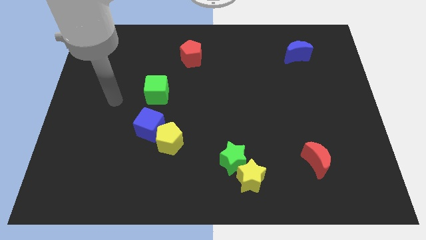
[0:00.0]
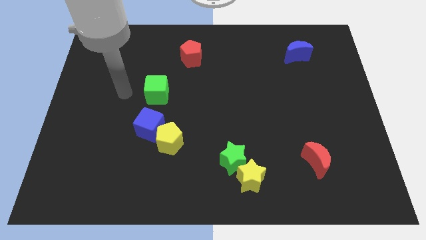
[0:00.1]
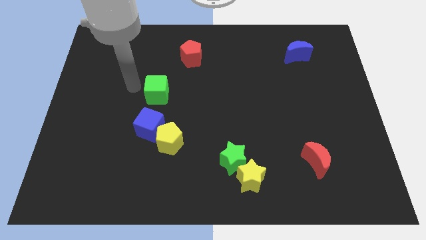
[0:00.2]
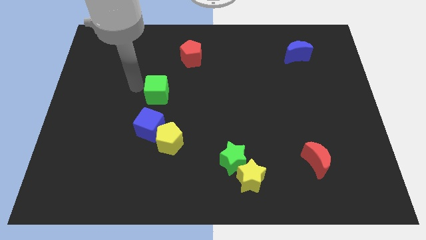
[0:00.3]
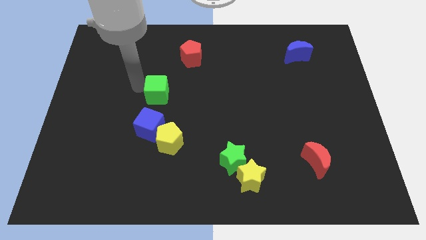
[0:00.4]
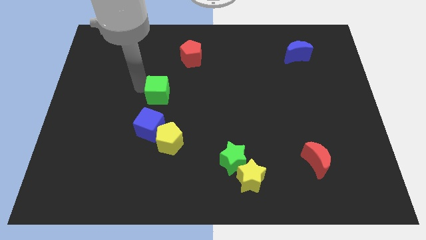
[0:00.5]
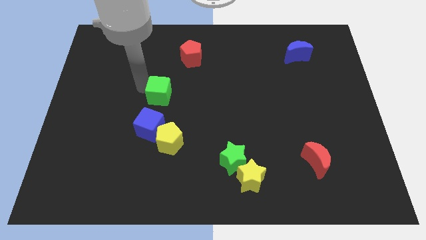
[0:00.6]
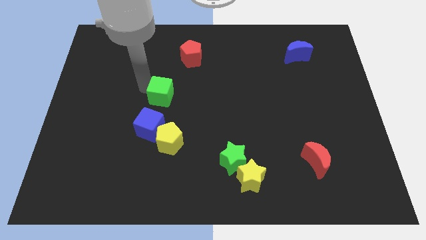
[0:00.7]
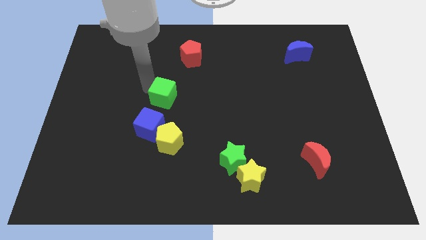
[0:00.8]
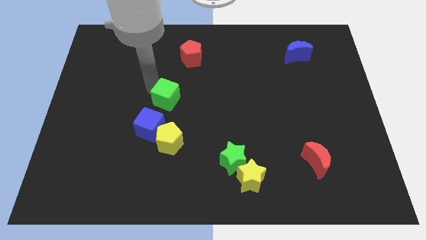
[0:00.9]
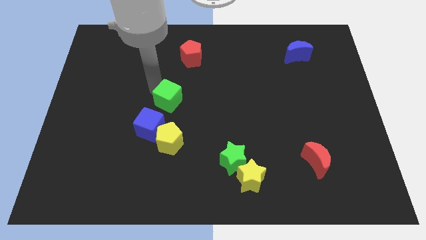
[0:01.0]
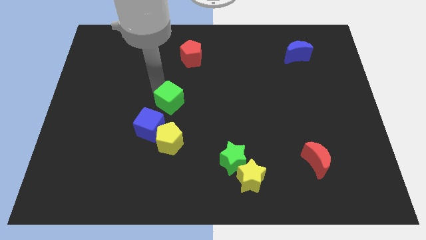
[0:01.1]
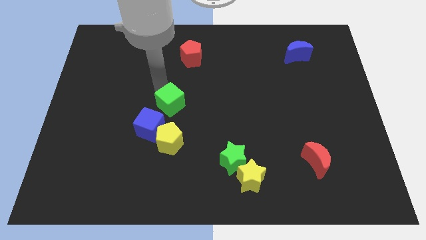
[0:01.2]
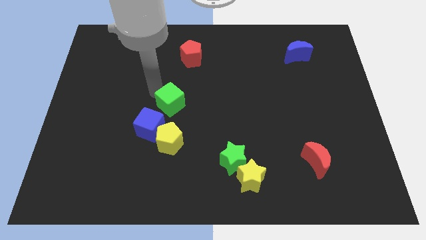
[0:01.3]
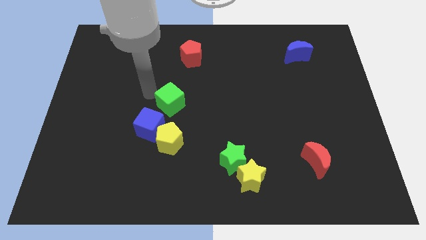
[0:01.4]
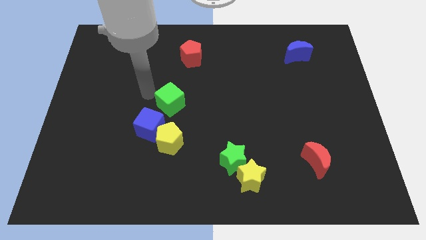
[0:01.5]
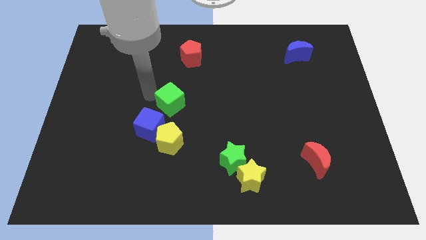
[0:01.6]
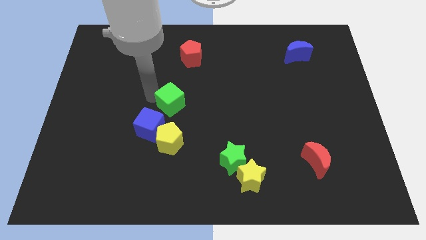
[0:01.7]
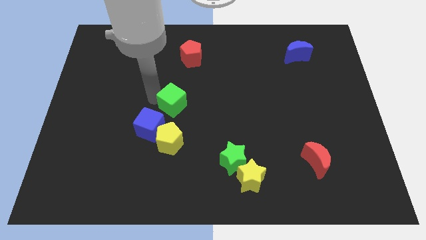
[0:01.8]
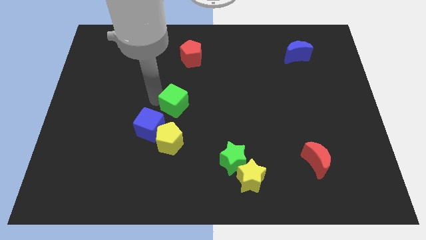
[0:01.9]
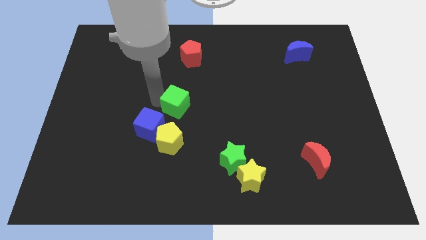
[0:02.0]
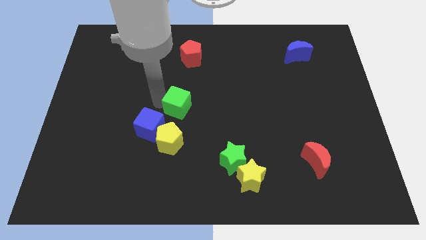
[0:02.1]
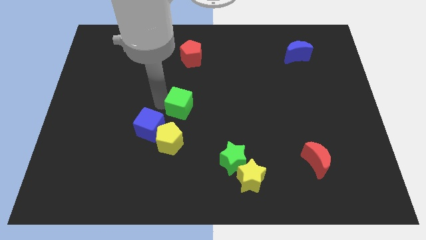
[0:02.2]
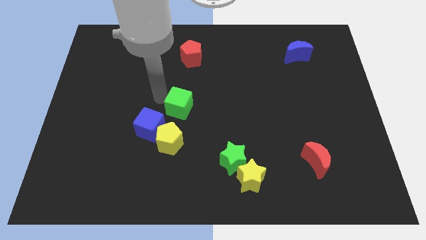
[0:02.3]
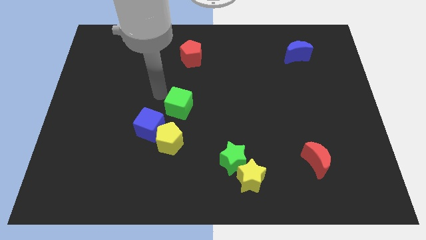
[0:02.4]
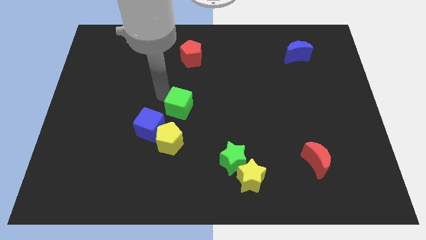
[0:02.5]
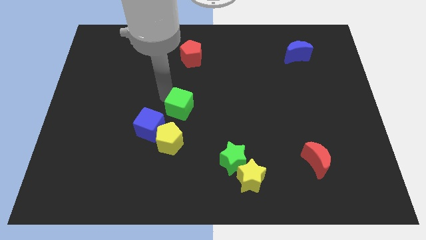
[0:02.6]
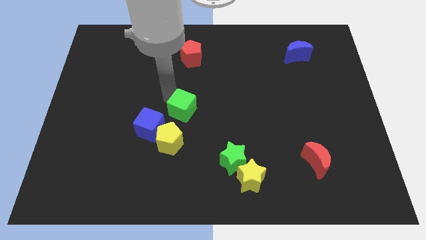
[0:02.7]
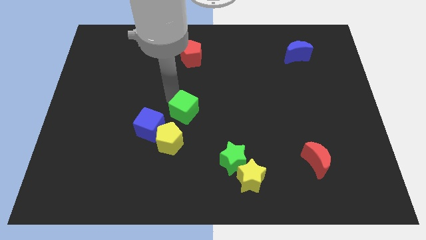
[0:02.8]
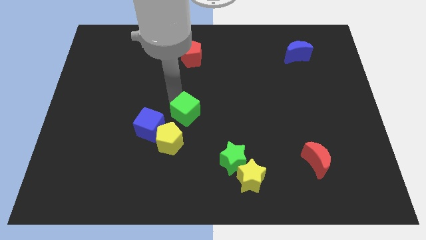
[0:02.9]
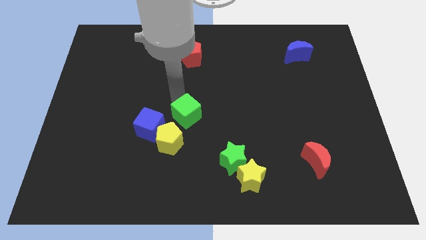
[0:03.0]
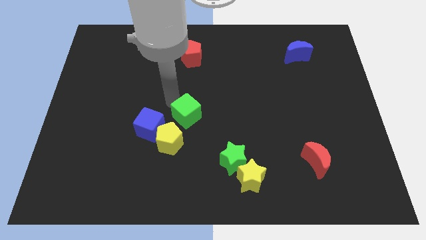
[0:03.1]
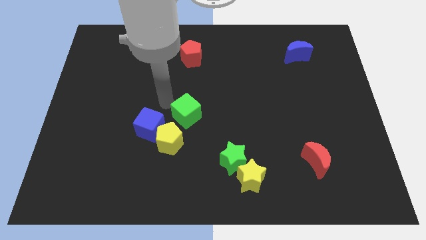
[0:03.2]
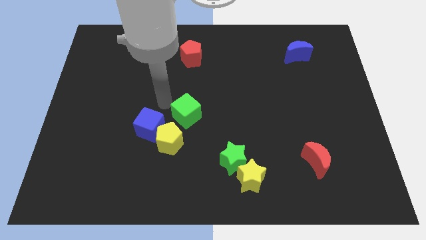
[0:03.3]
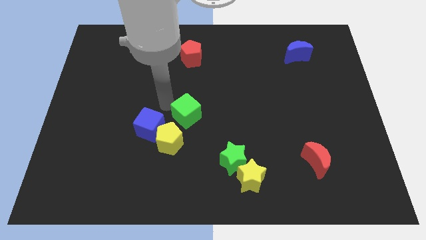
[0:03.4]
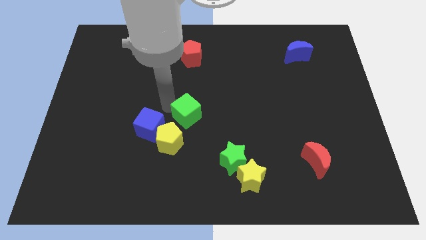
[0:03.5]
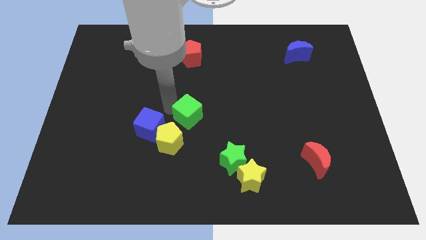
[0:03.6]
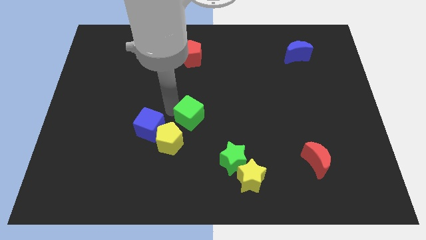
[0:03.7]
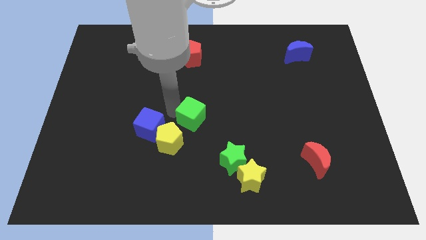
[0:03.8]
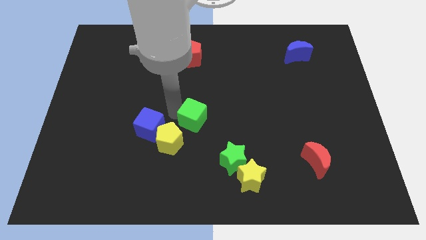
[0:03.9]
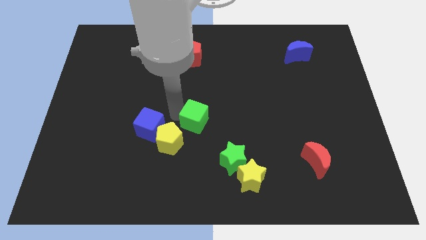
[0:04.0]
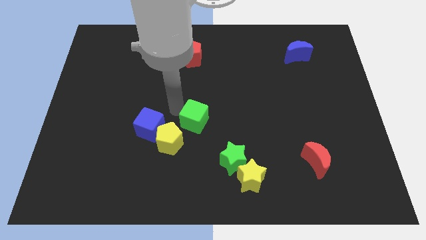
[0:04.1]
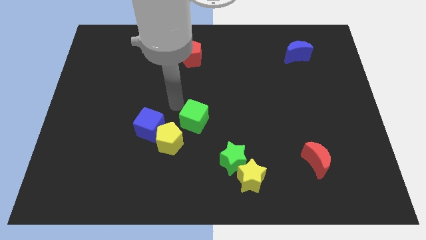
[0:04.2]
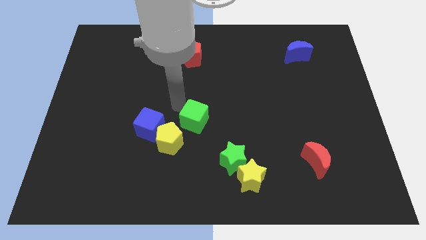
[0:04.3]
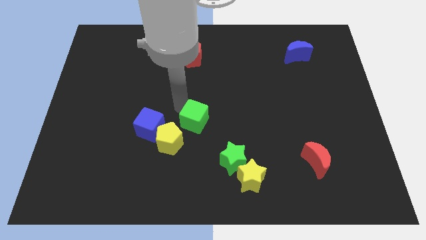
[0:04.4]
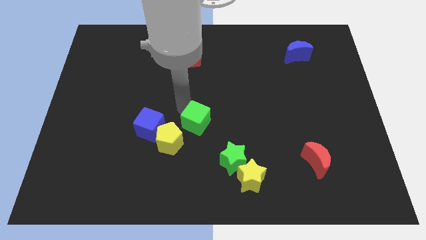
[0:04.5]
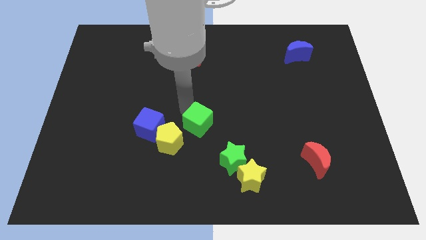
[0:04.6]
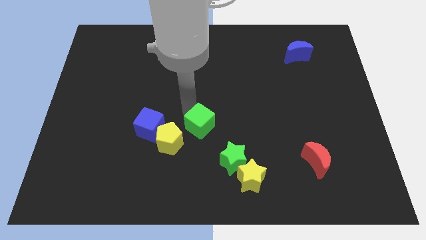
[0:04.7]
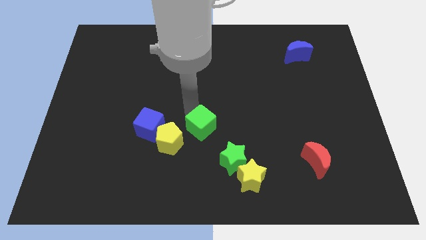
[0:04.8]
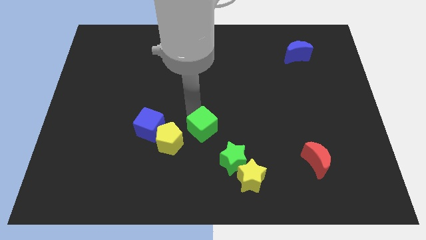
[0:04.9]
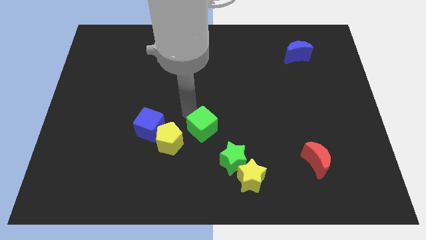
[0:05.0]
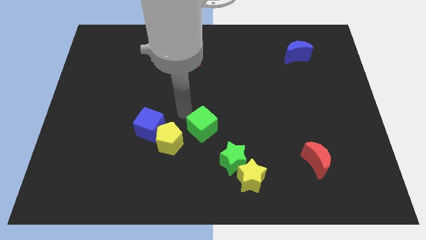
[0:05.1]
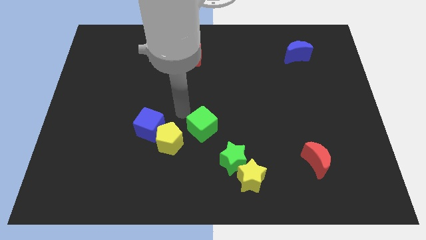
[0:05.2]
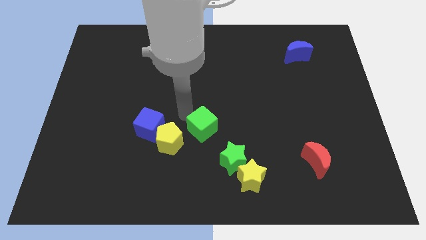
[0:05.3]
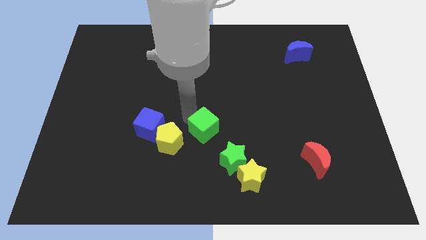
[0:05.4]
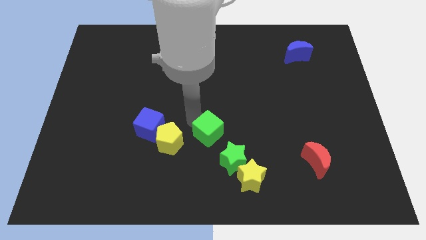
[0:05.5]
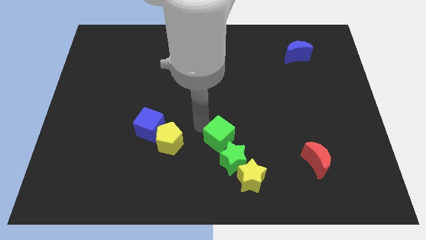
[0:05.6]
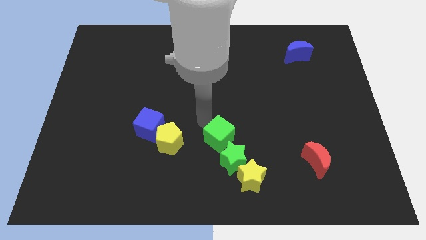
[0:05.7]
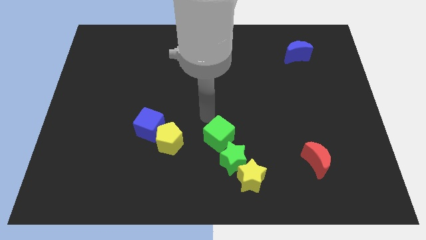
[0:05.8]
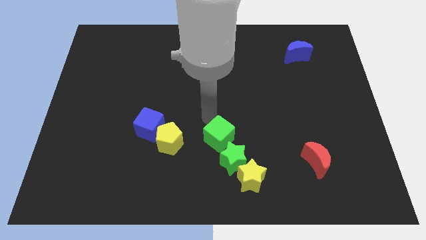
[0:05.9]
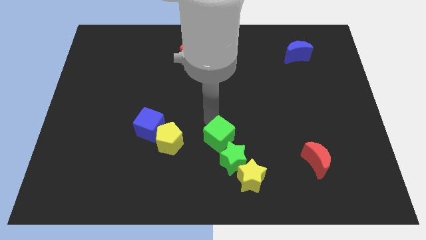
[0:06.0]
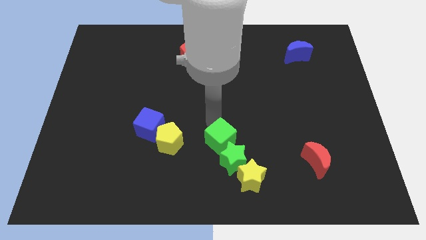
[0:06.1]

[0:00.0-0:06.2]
slide the green cube to the green star

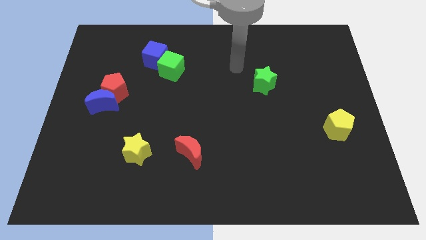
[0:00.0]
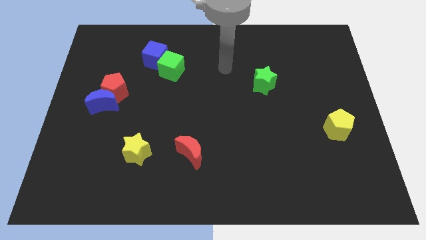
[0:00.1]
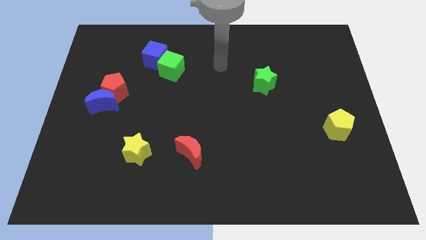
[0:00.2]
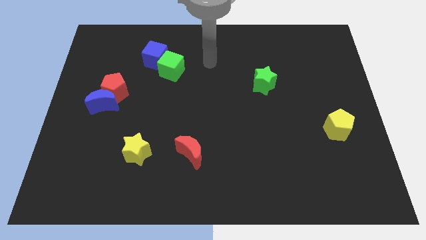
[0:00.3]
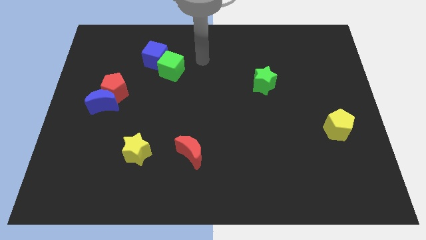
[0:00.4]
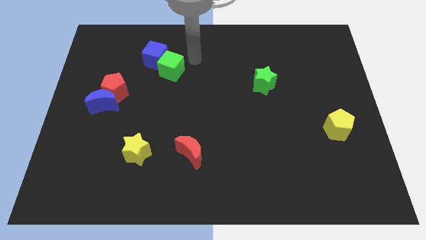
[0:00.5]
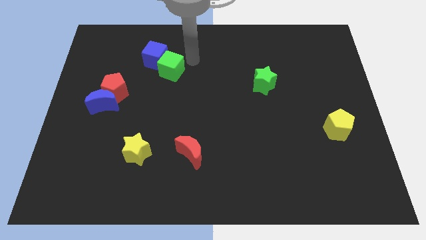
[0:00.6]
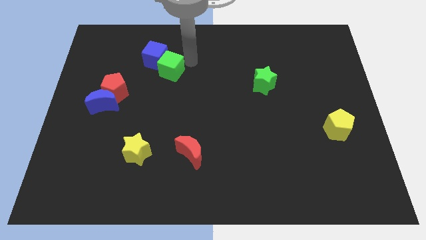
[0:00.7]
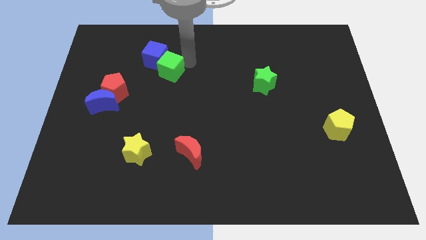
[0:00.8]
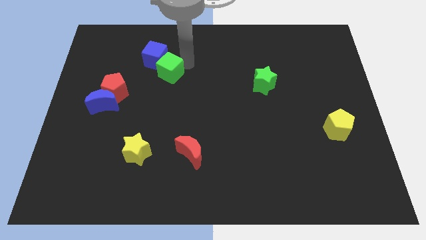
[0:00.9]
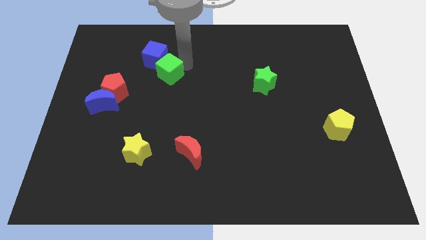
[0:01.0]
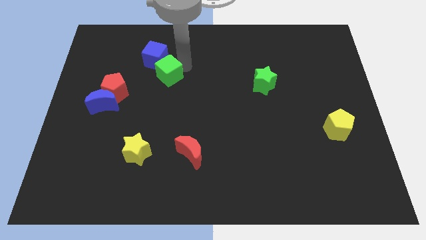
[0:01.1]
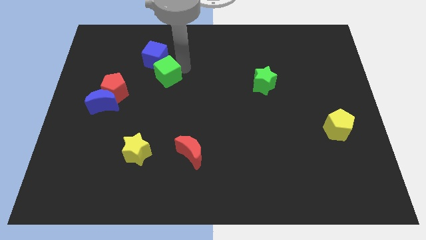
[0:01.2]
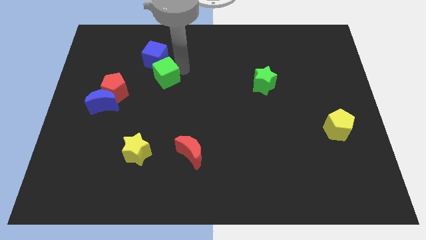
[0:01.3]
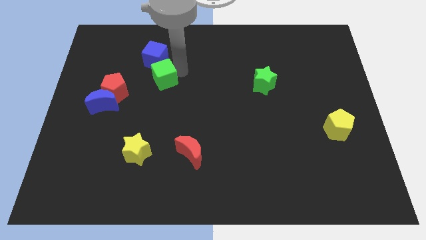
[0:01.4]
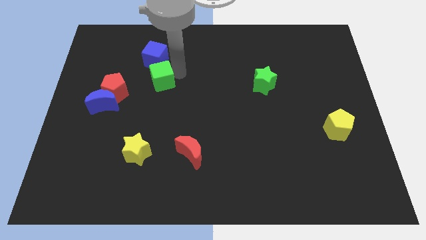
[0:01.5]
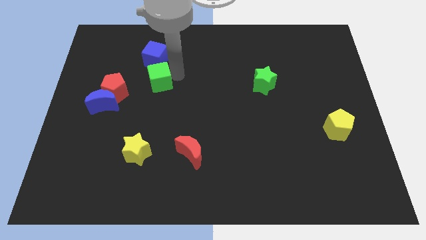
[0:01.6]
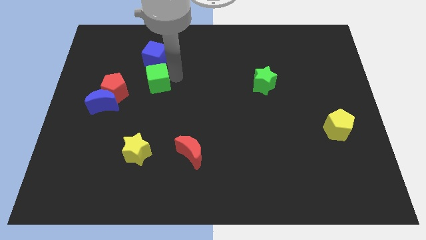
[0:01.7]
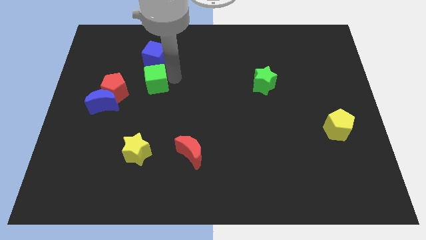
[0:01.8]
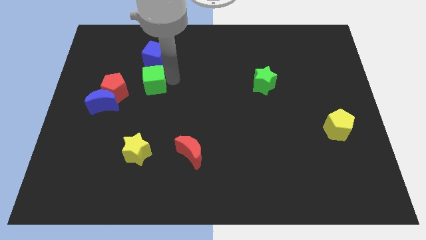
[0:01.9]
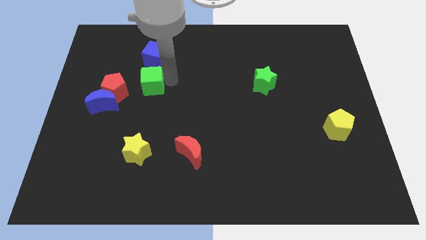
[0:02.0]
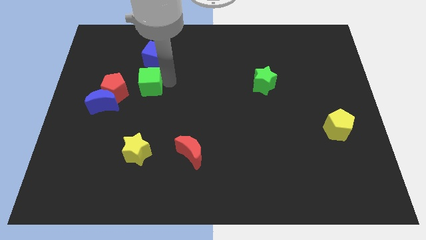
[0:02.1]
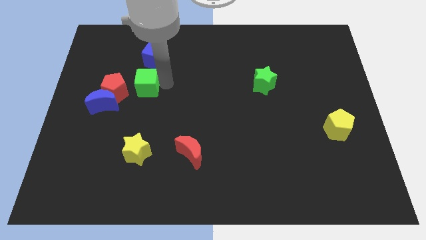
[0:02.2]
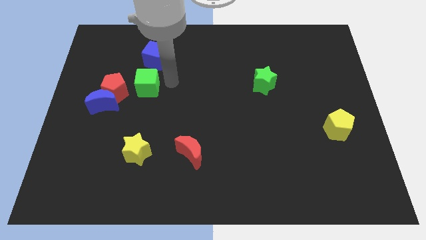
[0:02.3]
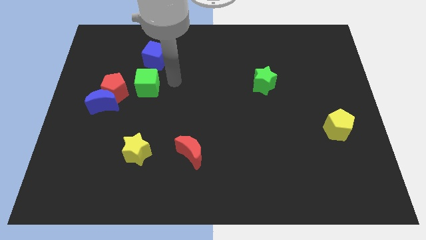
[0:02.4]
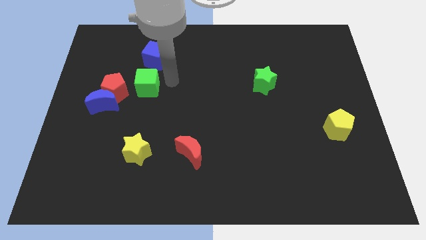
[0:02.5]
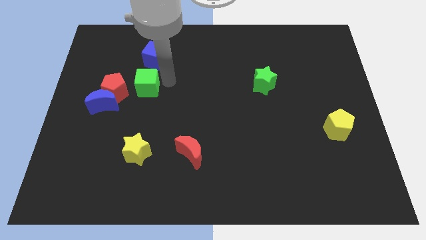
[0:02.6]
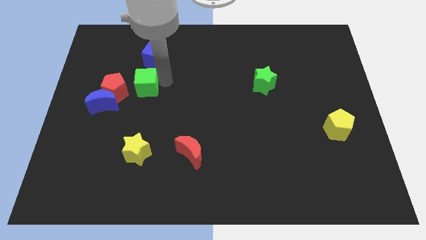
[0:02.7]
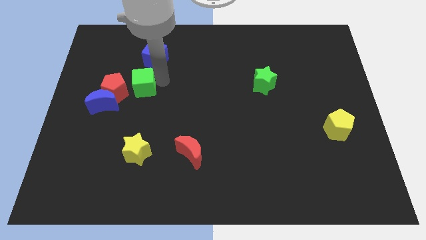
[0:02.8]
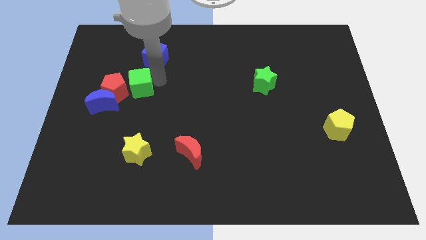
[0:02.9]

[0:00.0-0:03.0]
move the green cube close to the red pentagon
